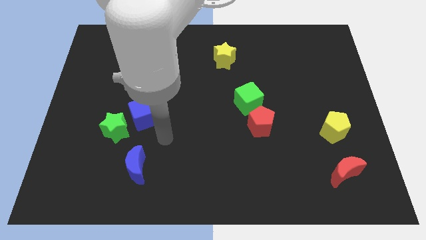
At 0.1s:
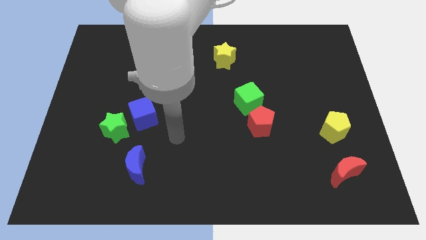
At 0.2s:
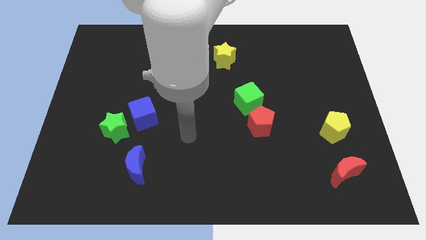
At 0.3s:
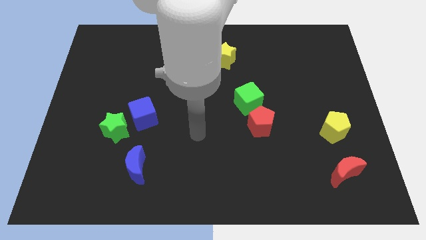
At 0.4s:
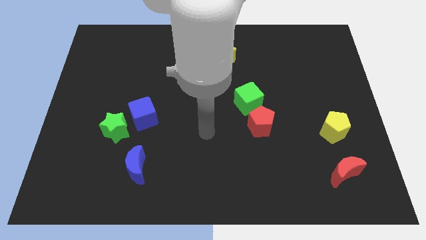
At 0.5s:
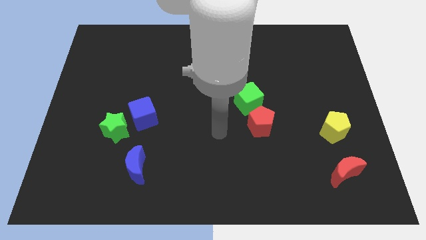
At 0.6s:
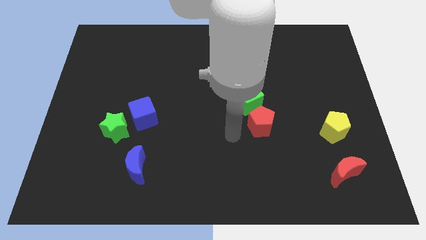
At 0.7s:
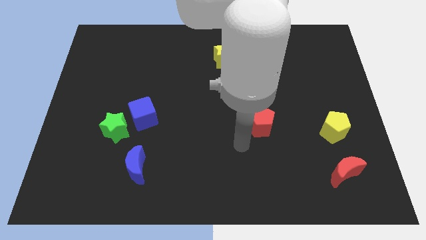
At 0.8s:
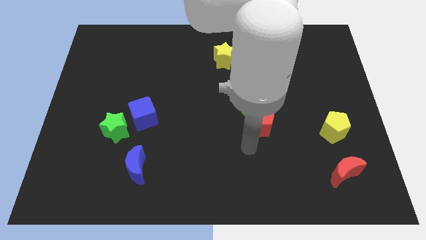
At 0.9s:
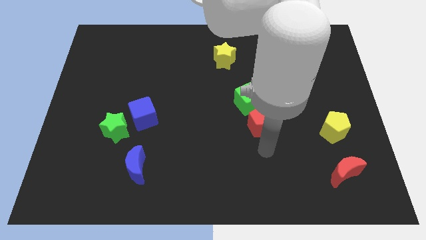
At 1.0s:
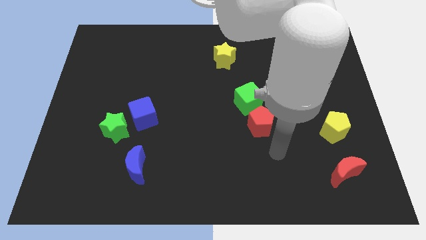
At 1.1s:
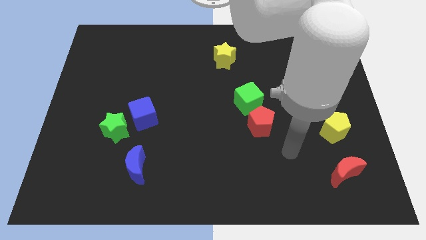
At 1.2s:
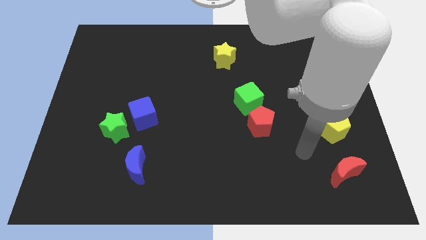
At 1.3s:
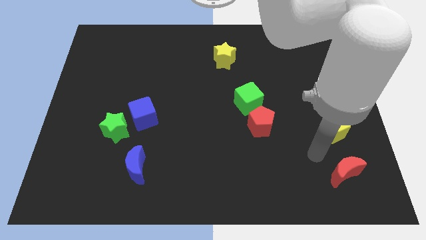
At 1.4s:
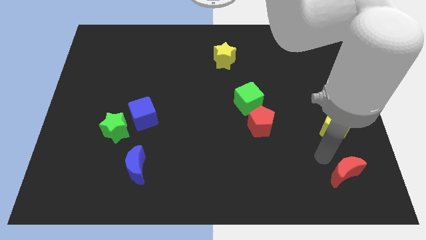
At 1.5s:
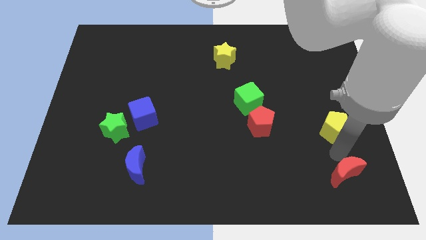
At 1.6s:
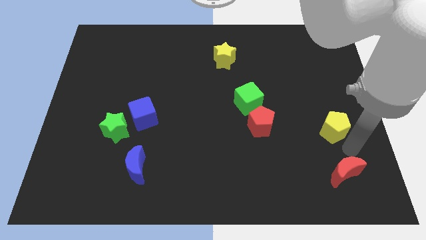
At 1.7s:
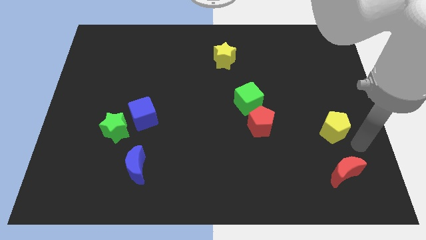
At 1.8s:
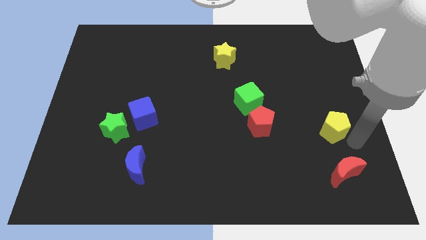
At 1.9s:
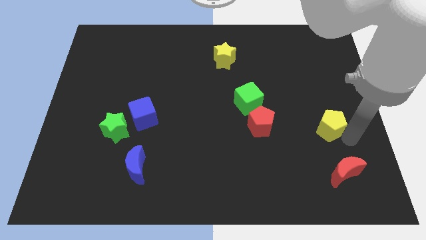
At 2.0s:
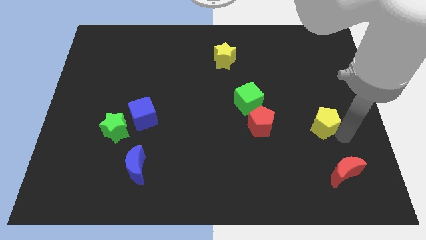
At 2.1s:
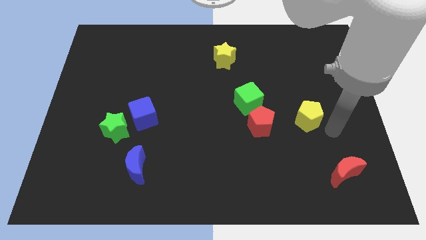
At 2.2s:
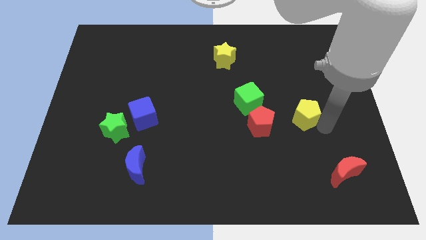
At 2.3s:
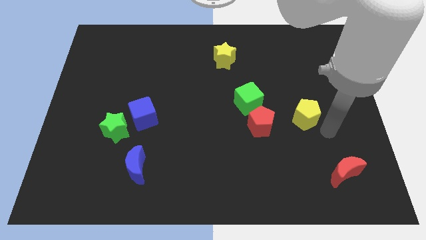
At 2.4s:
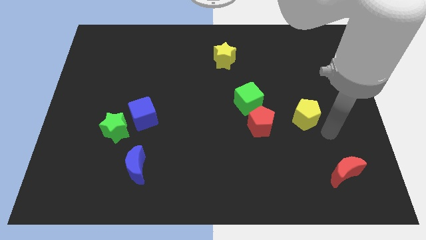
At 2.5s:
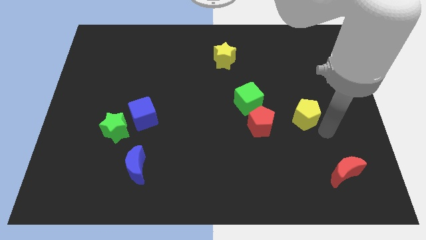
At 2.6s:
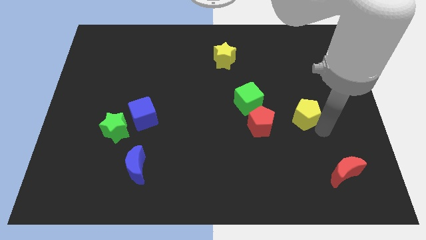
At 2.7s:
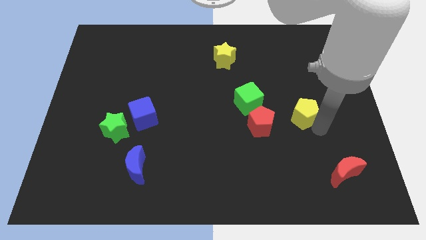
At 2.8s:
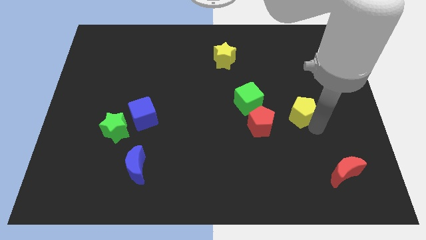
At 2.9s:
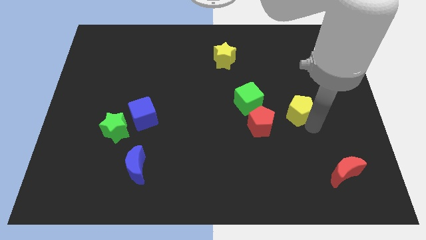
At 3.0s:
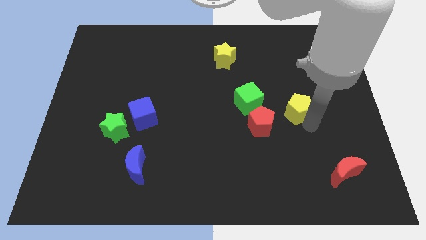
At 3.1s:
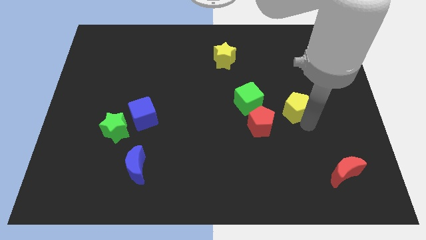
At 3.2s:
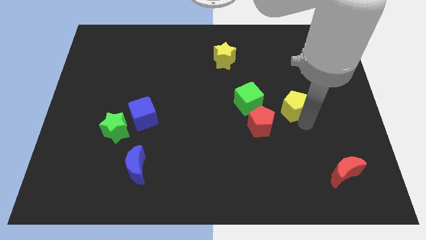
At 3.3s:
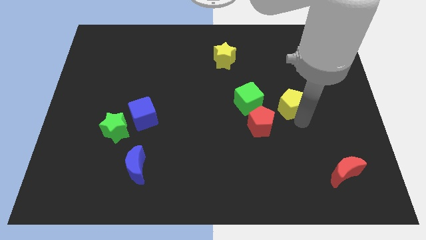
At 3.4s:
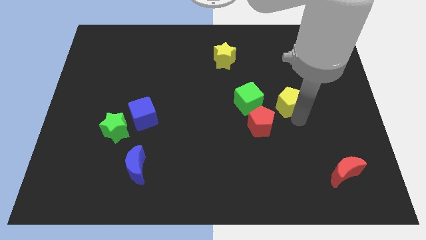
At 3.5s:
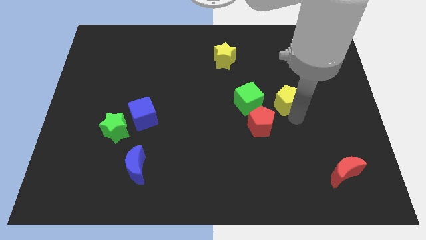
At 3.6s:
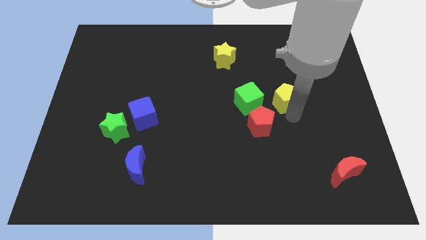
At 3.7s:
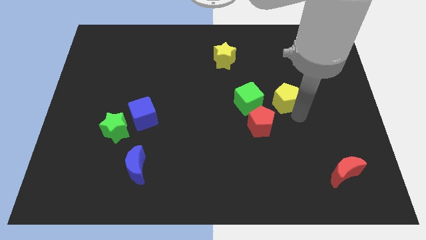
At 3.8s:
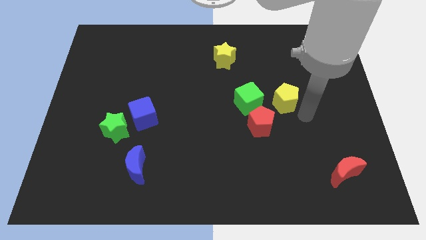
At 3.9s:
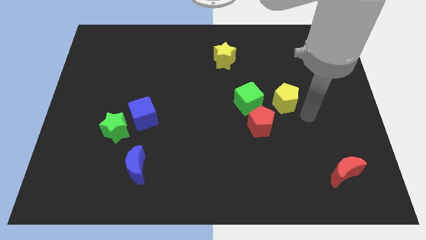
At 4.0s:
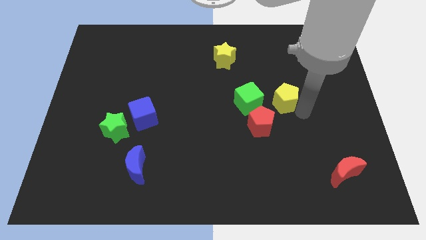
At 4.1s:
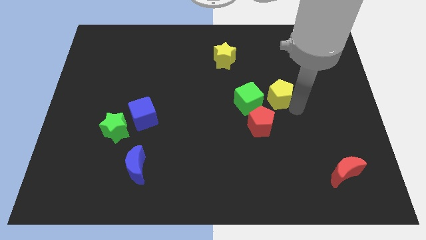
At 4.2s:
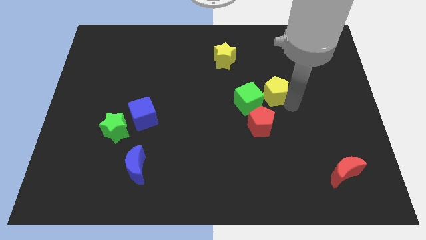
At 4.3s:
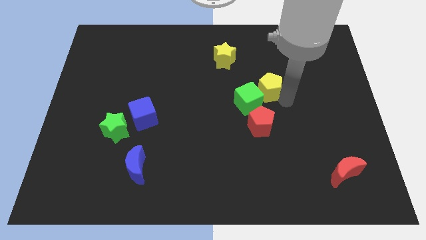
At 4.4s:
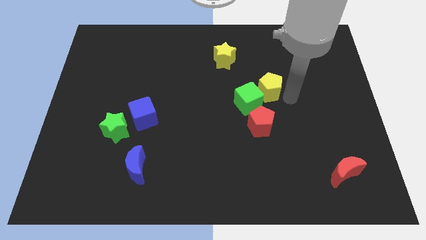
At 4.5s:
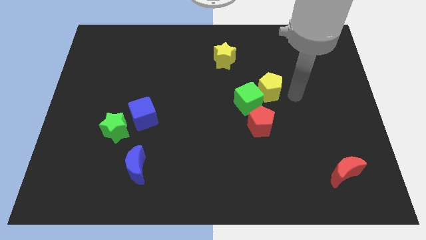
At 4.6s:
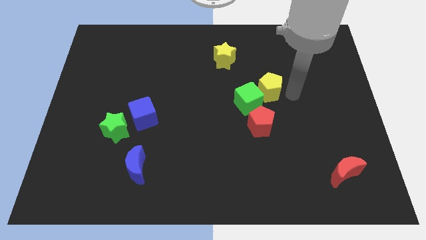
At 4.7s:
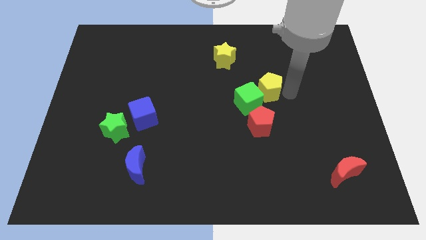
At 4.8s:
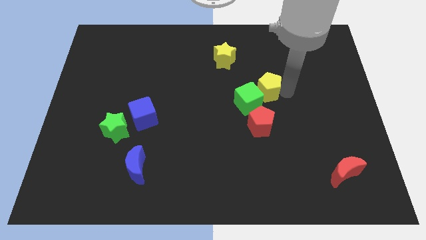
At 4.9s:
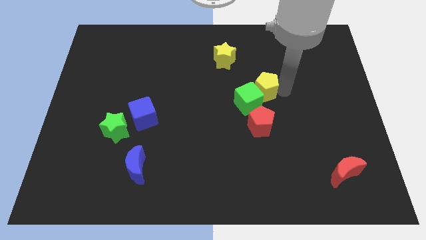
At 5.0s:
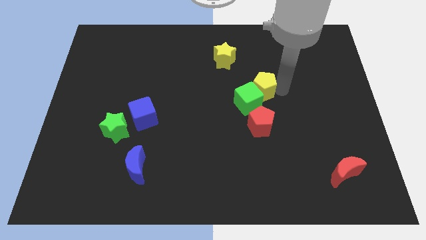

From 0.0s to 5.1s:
move the yellow pentagon to the middle of the board

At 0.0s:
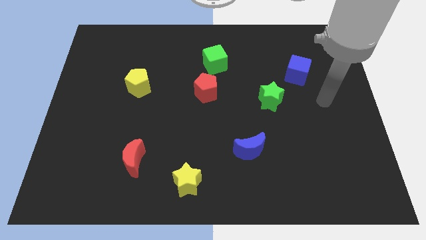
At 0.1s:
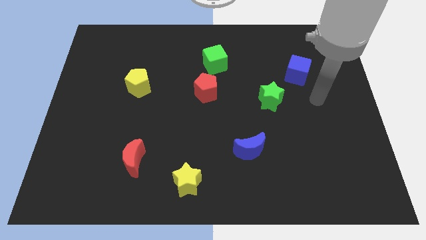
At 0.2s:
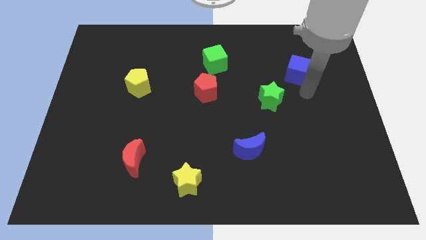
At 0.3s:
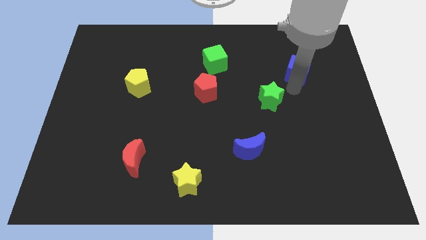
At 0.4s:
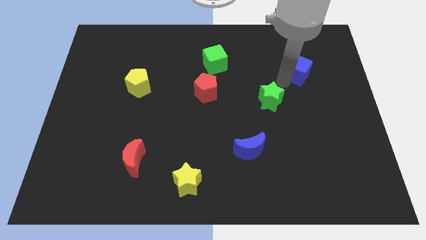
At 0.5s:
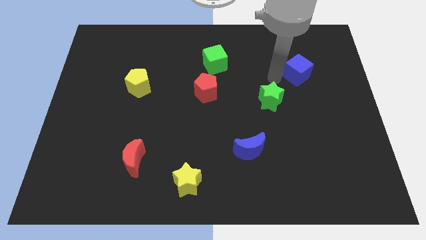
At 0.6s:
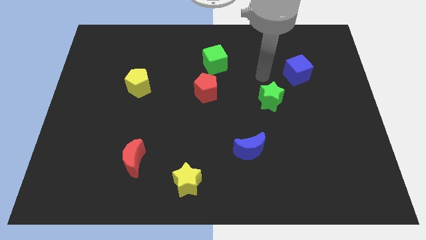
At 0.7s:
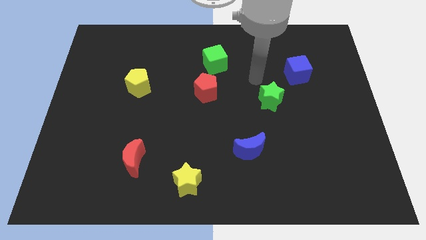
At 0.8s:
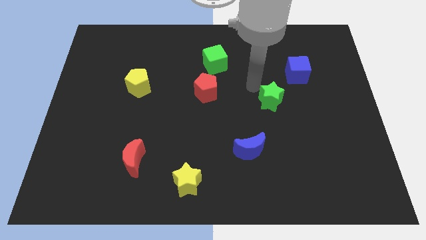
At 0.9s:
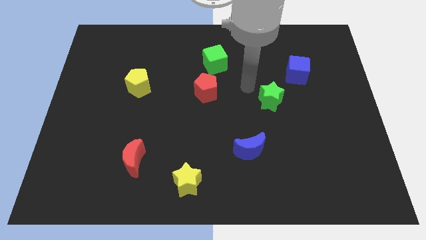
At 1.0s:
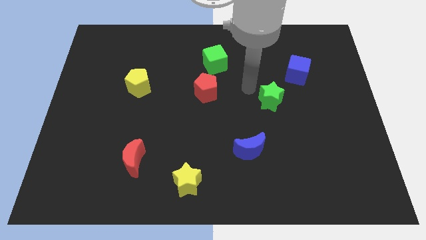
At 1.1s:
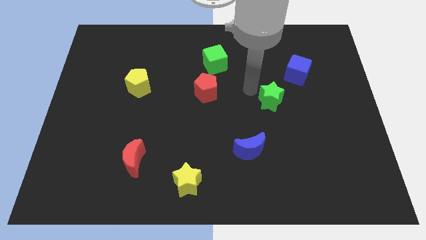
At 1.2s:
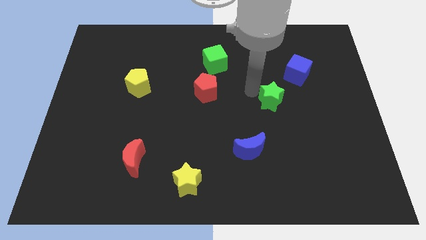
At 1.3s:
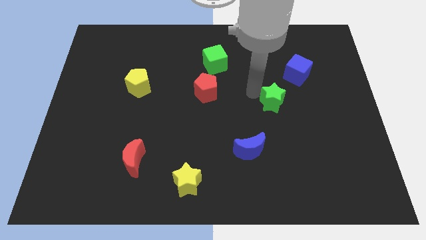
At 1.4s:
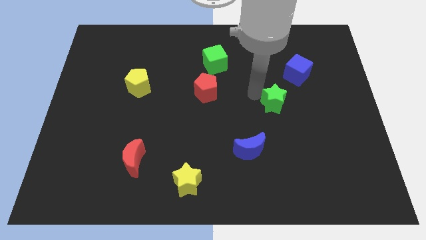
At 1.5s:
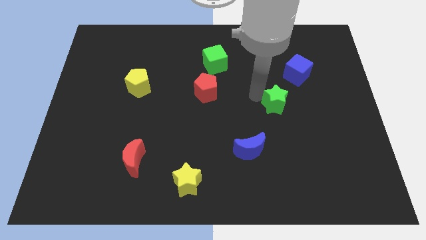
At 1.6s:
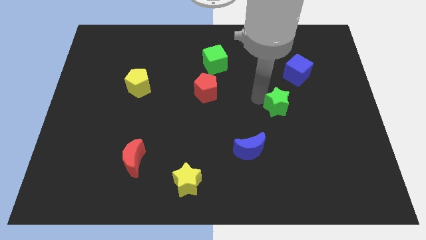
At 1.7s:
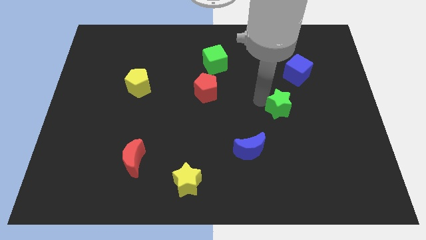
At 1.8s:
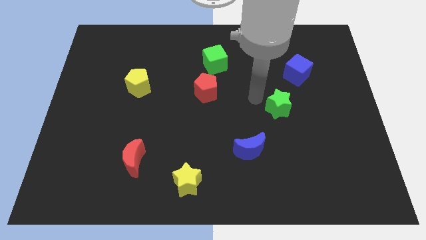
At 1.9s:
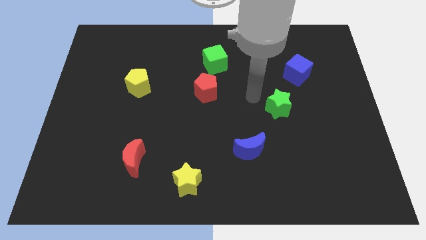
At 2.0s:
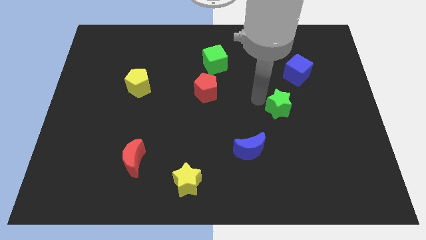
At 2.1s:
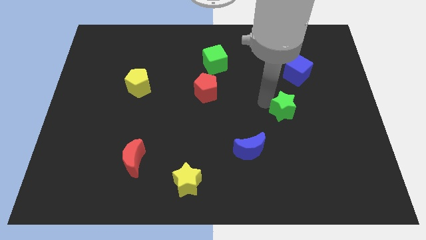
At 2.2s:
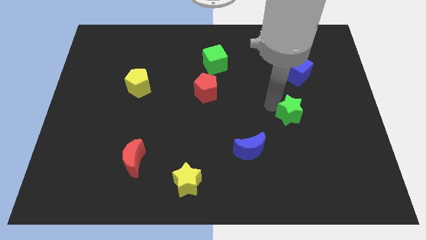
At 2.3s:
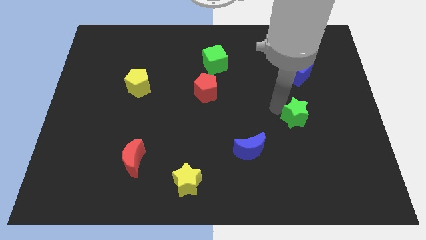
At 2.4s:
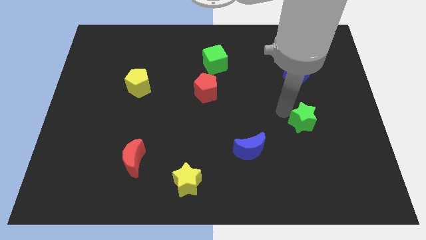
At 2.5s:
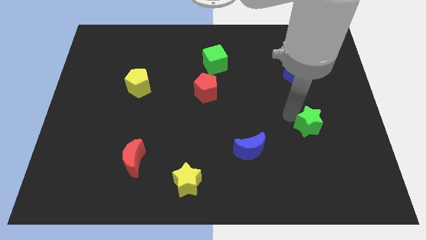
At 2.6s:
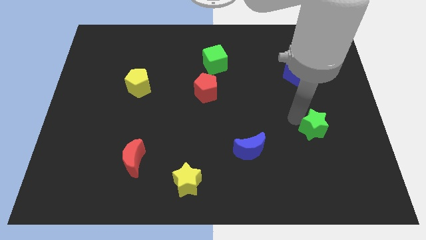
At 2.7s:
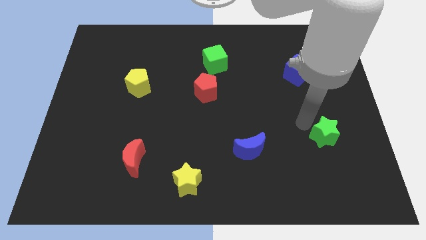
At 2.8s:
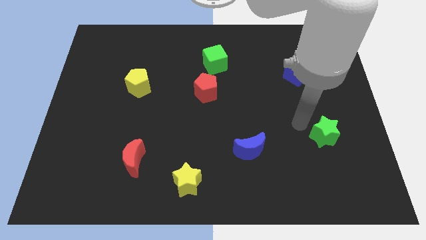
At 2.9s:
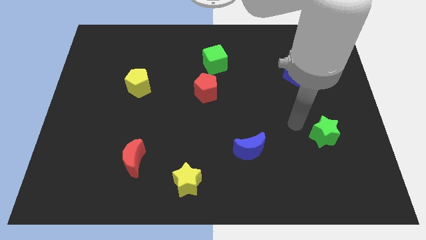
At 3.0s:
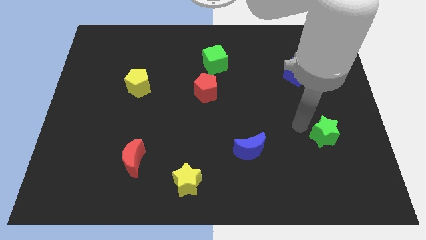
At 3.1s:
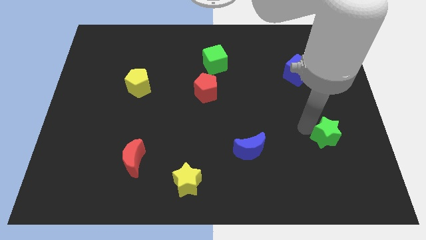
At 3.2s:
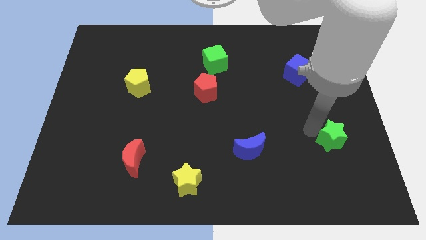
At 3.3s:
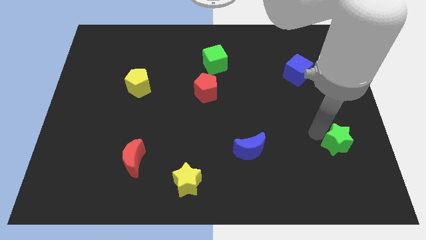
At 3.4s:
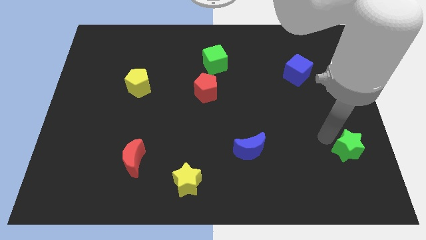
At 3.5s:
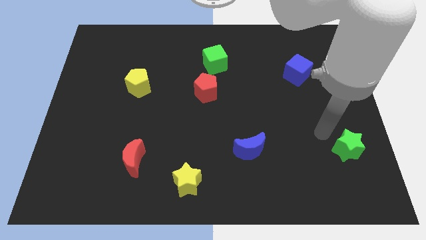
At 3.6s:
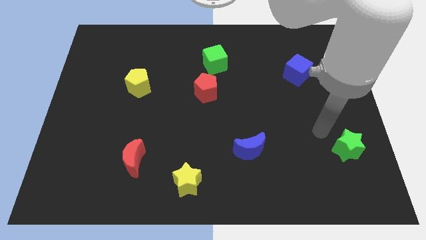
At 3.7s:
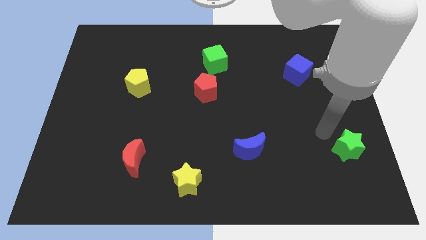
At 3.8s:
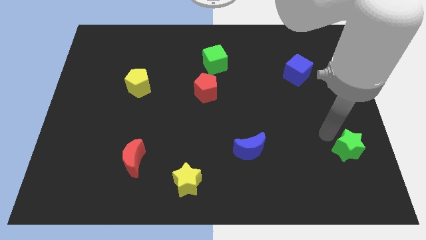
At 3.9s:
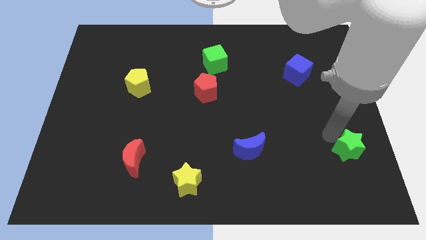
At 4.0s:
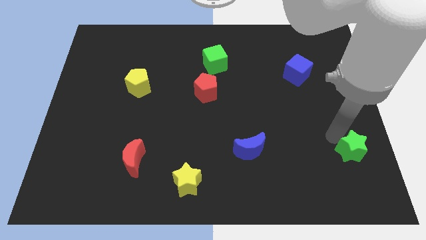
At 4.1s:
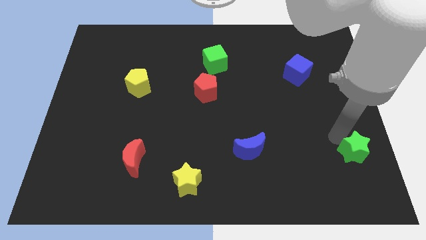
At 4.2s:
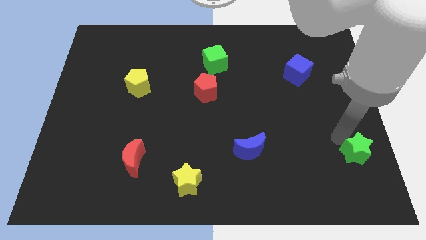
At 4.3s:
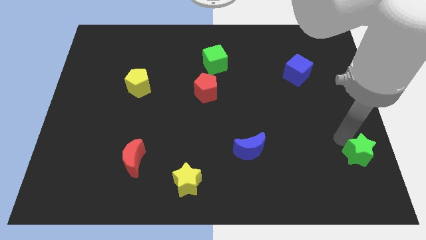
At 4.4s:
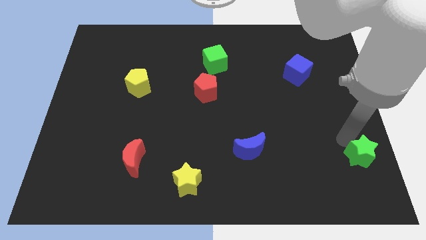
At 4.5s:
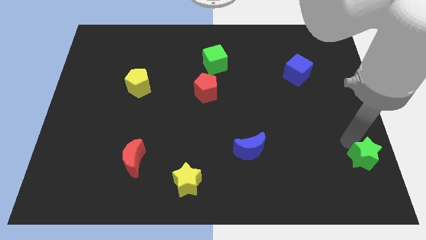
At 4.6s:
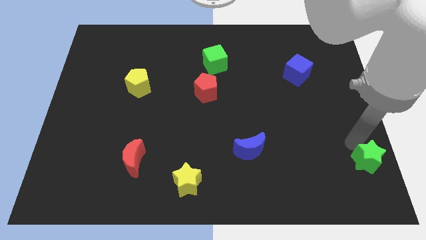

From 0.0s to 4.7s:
put the green star to the bottom right of the board
